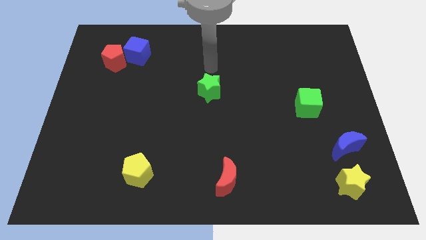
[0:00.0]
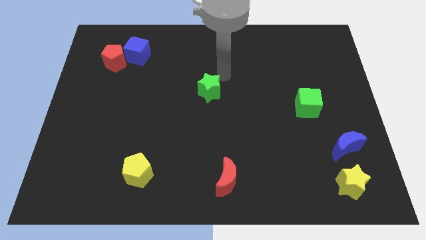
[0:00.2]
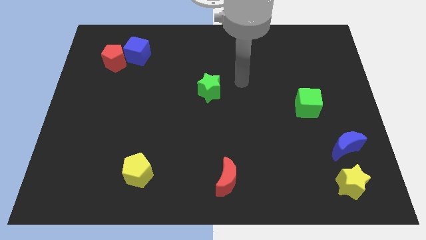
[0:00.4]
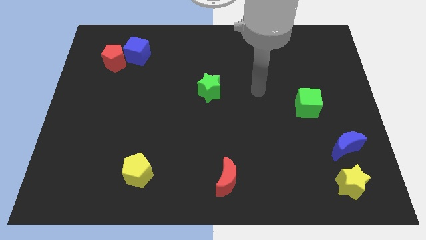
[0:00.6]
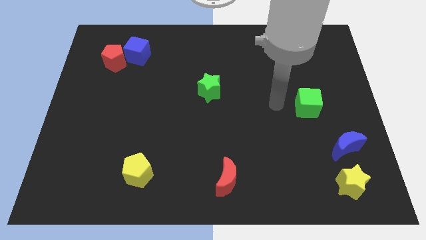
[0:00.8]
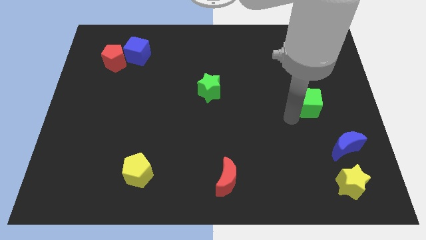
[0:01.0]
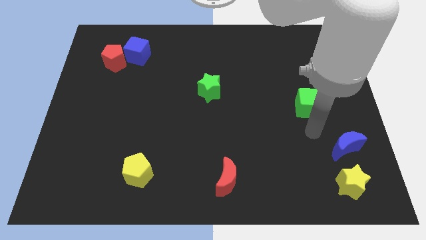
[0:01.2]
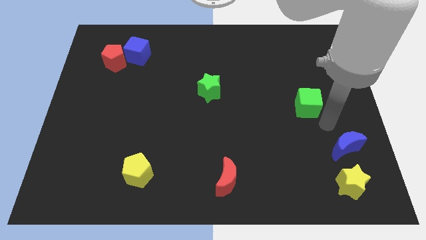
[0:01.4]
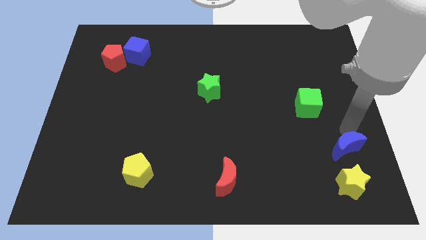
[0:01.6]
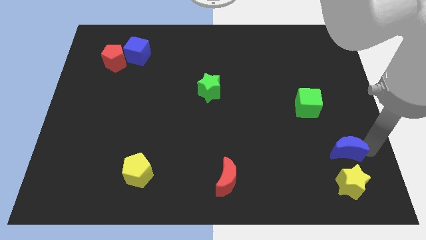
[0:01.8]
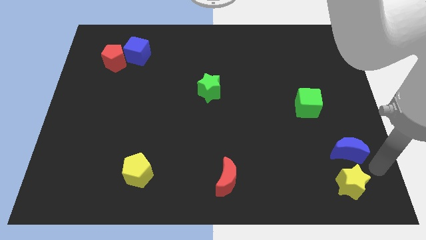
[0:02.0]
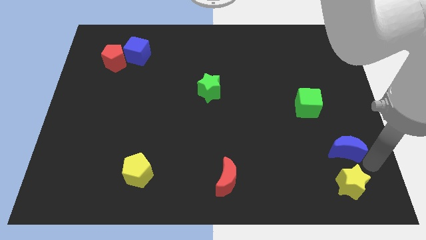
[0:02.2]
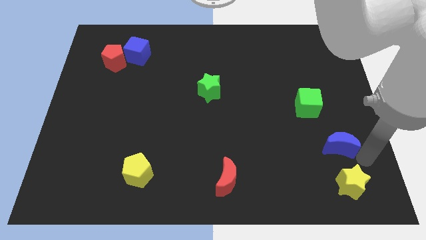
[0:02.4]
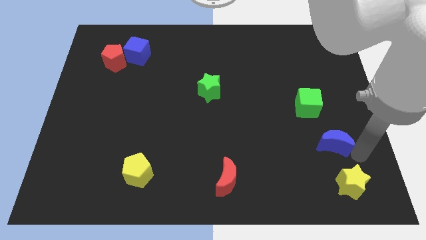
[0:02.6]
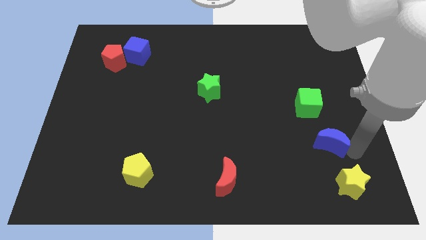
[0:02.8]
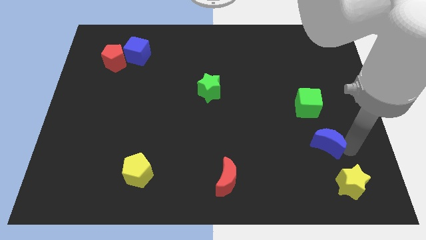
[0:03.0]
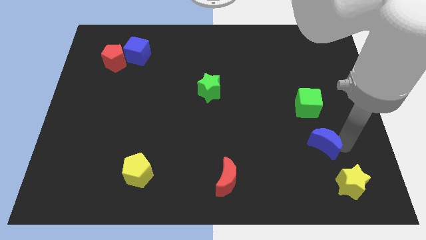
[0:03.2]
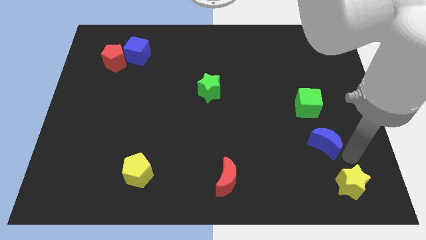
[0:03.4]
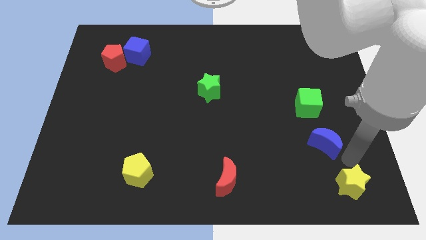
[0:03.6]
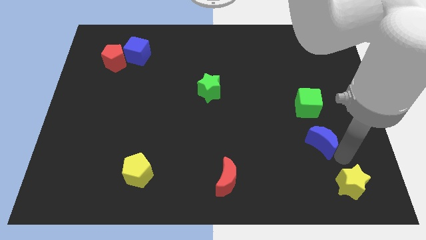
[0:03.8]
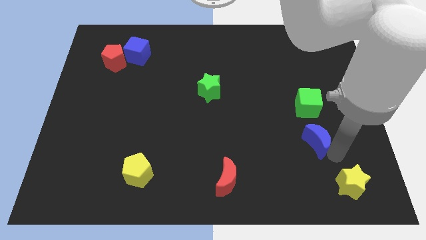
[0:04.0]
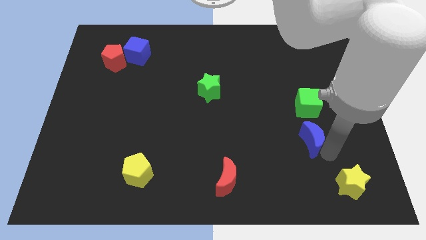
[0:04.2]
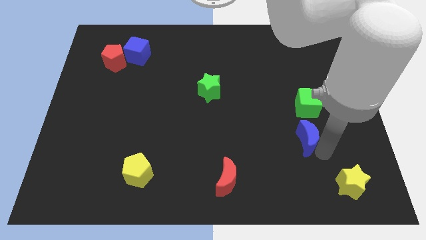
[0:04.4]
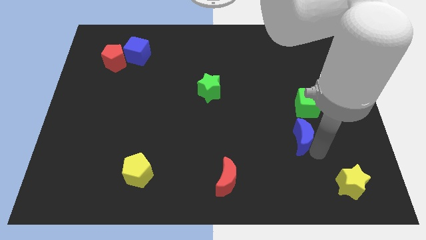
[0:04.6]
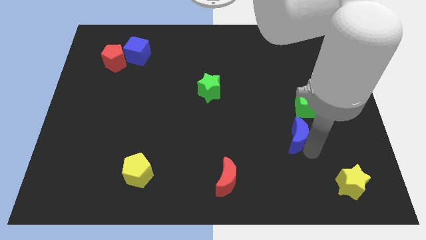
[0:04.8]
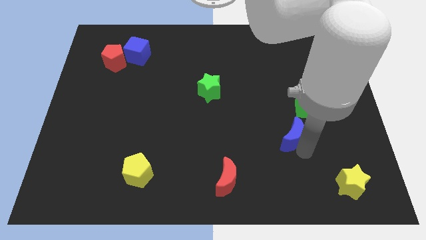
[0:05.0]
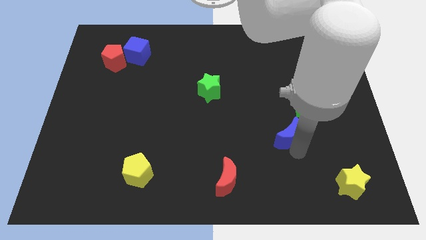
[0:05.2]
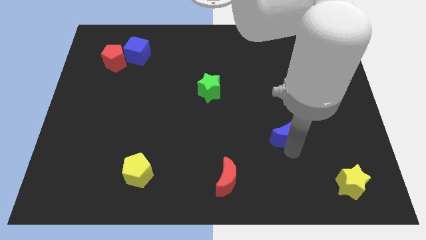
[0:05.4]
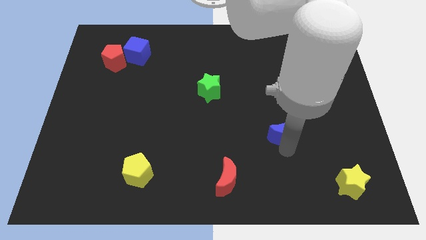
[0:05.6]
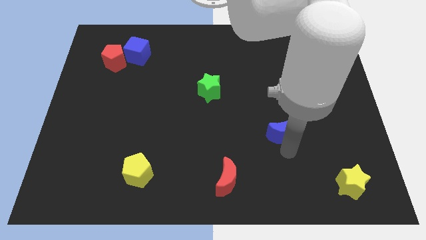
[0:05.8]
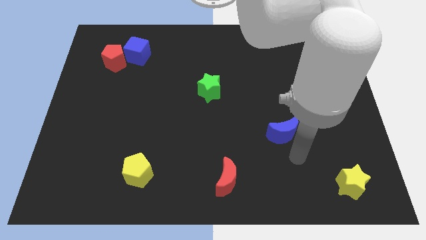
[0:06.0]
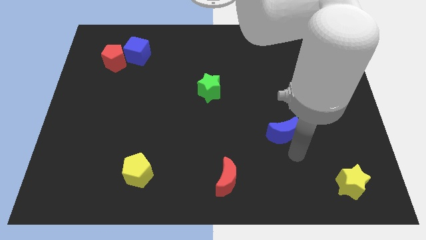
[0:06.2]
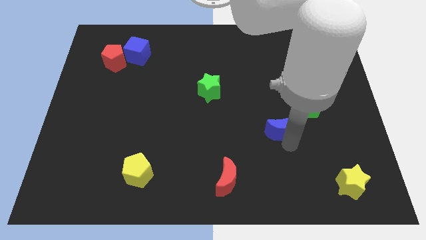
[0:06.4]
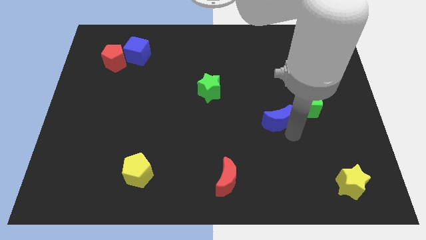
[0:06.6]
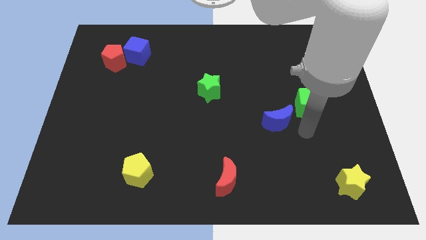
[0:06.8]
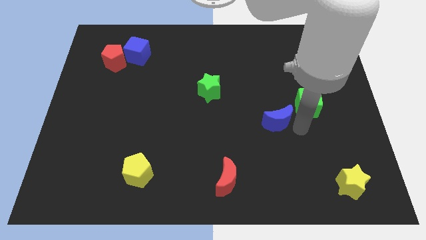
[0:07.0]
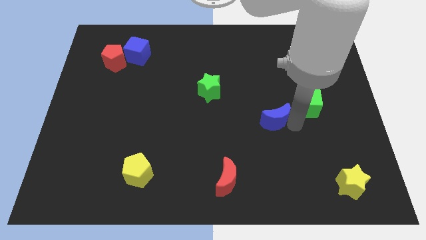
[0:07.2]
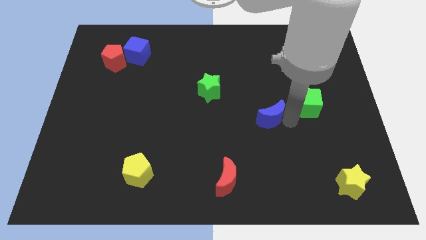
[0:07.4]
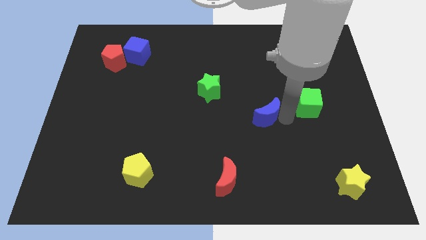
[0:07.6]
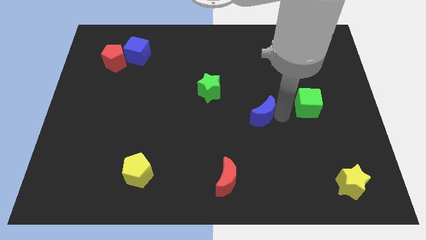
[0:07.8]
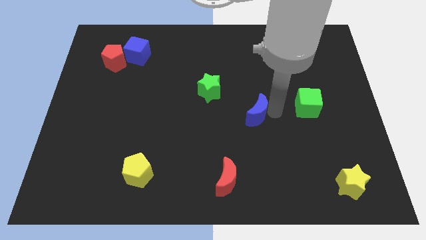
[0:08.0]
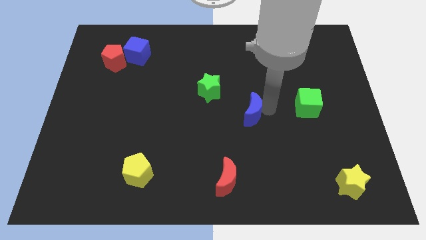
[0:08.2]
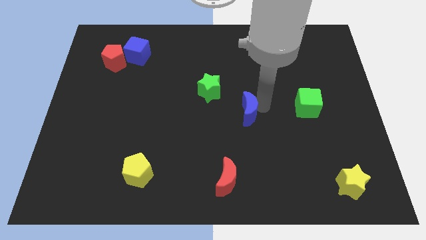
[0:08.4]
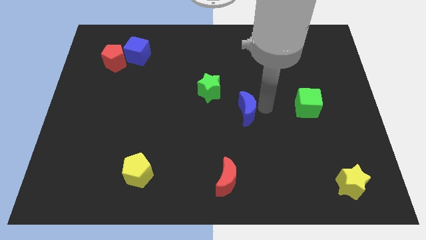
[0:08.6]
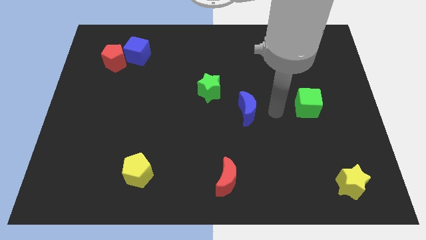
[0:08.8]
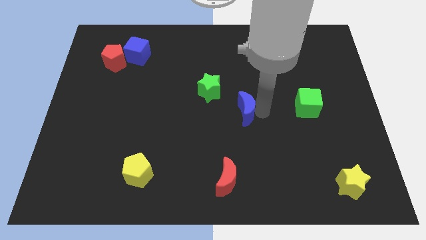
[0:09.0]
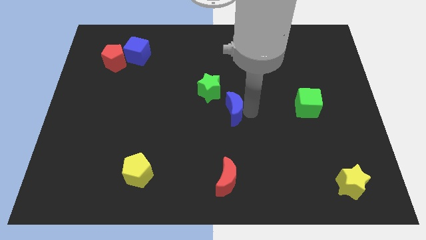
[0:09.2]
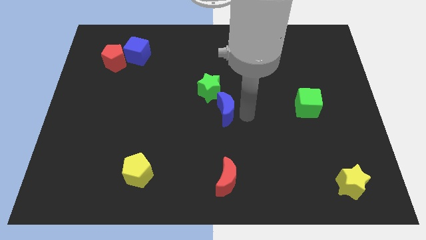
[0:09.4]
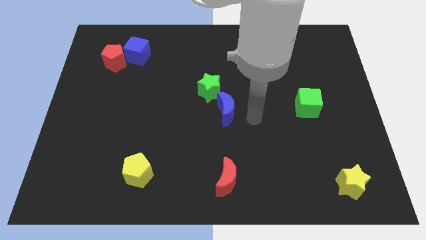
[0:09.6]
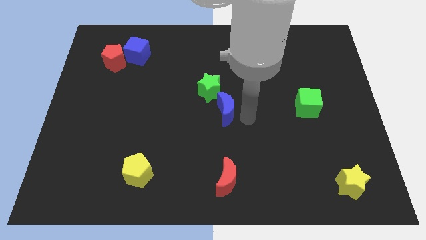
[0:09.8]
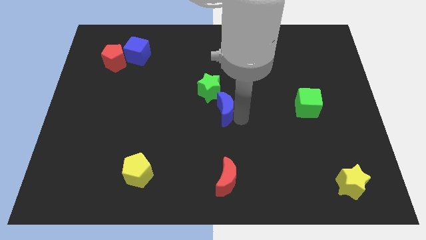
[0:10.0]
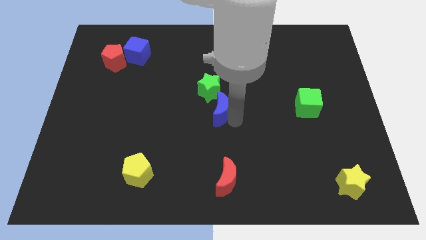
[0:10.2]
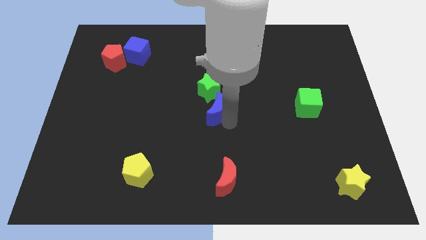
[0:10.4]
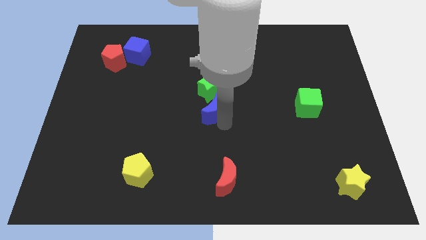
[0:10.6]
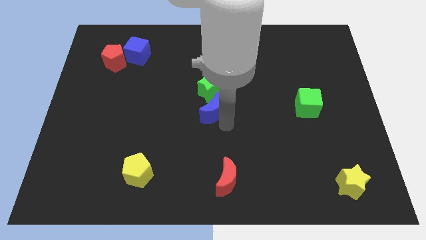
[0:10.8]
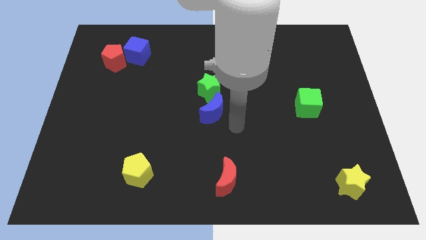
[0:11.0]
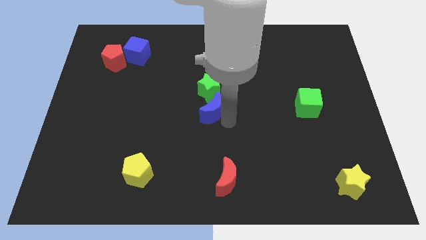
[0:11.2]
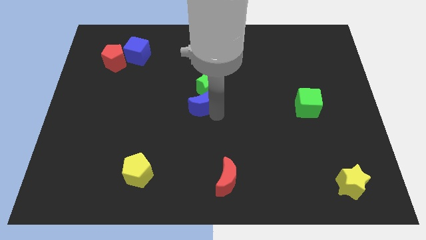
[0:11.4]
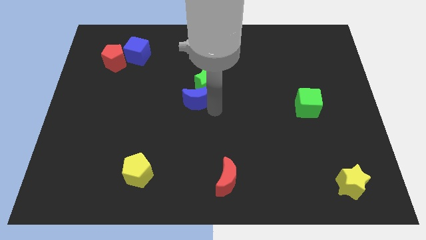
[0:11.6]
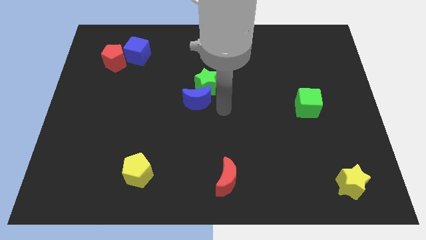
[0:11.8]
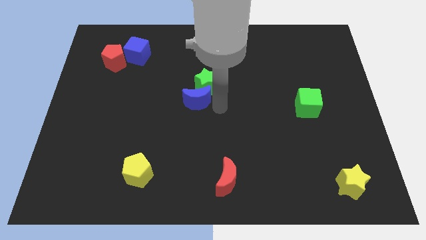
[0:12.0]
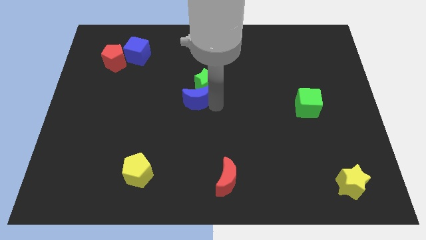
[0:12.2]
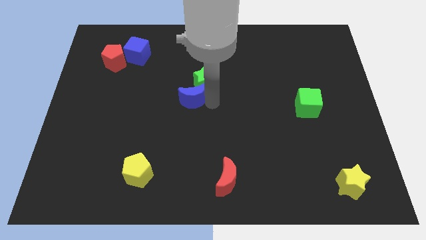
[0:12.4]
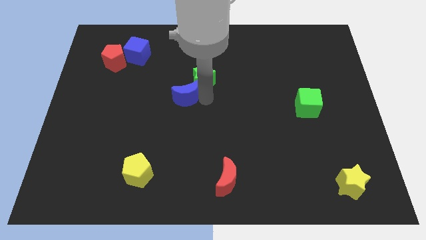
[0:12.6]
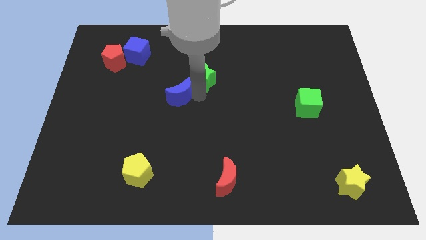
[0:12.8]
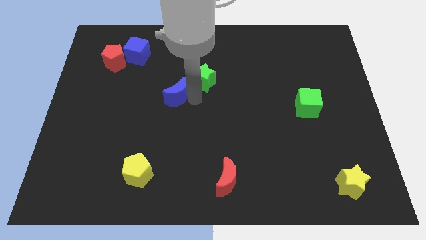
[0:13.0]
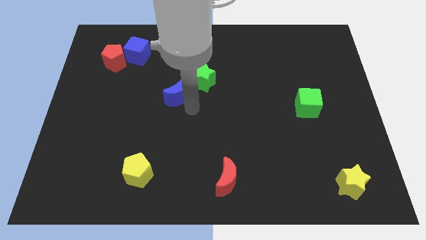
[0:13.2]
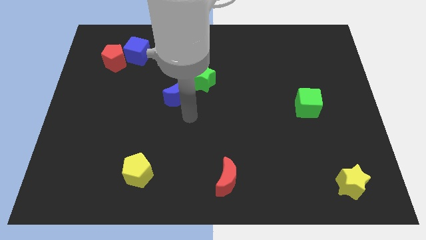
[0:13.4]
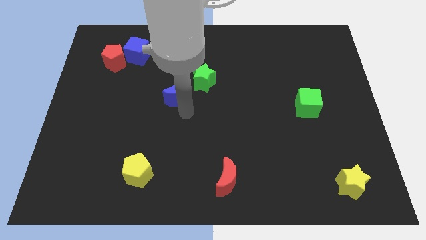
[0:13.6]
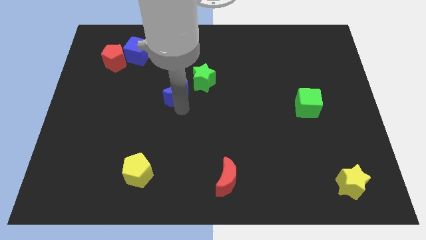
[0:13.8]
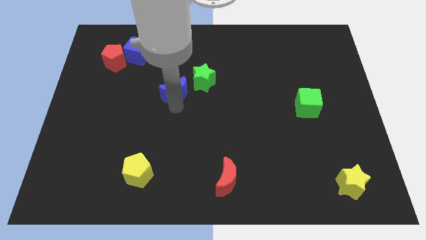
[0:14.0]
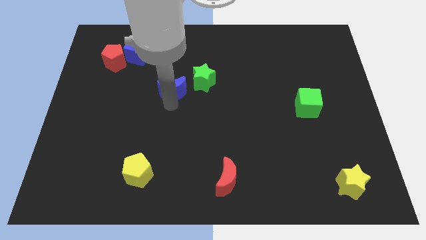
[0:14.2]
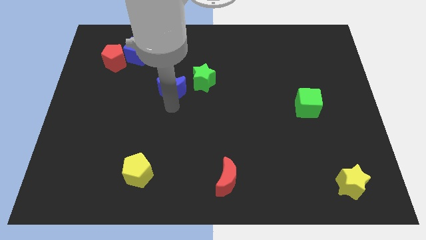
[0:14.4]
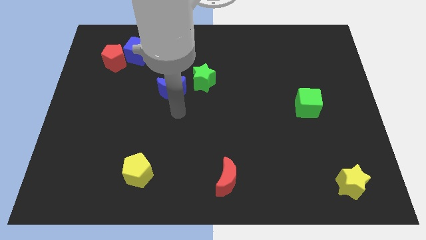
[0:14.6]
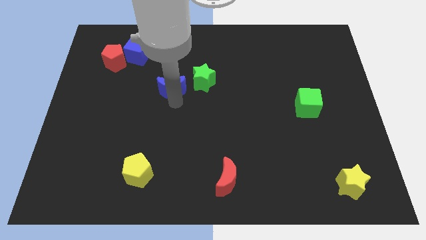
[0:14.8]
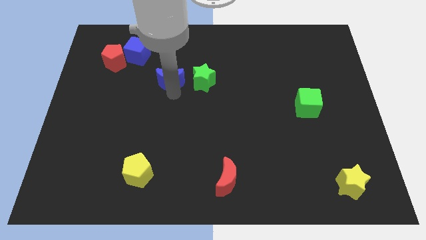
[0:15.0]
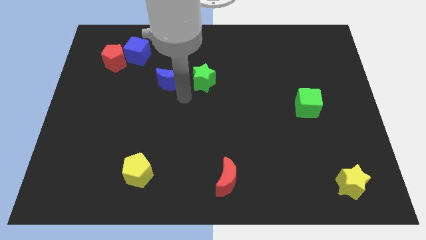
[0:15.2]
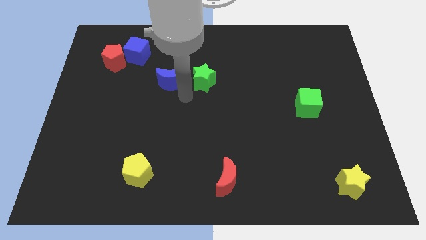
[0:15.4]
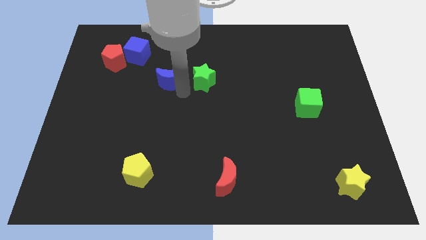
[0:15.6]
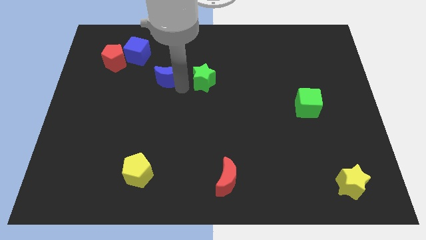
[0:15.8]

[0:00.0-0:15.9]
push the blue moon to the bottom right side of the blue cube
